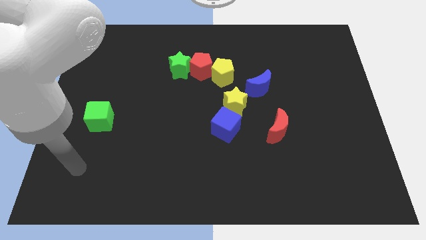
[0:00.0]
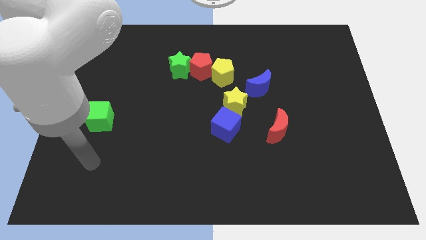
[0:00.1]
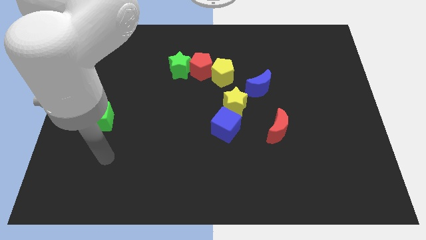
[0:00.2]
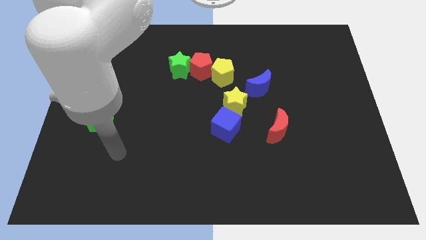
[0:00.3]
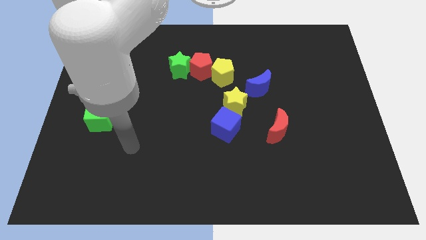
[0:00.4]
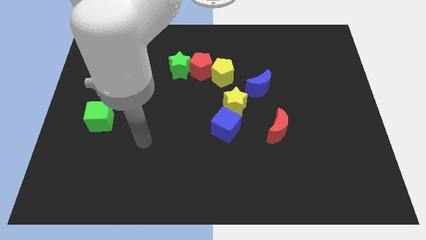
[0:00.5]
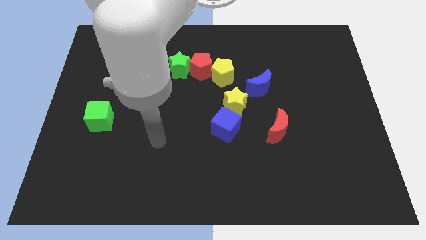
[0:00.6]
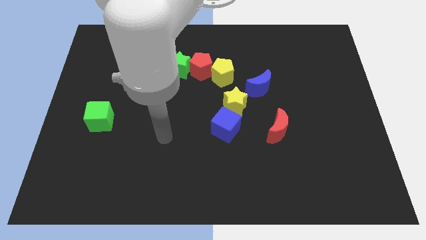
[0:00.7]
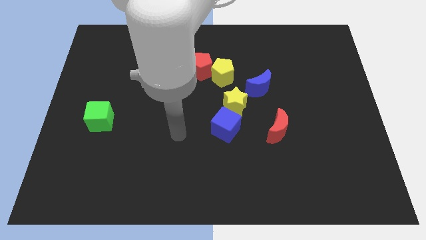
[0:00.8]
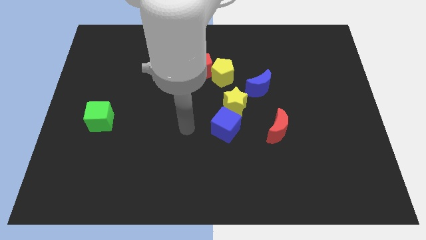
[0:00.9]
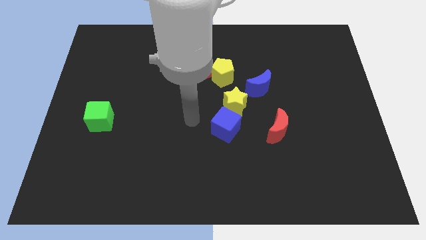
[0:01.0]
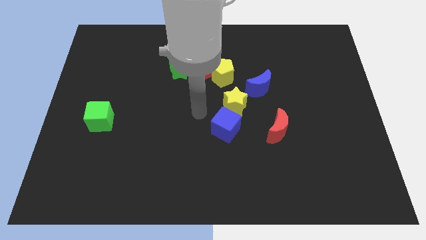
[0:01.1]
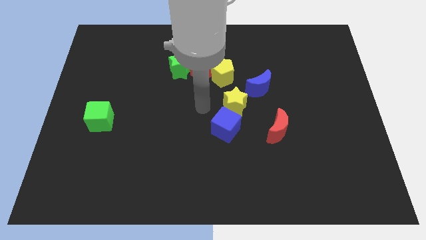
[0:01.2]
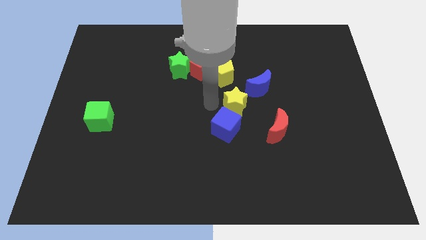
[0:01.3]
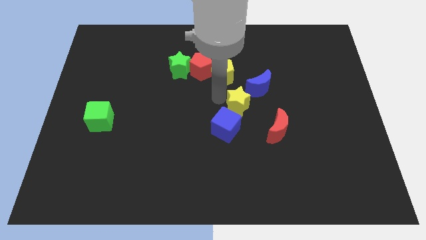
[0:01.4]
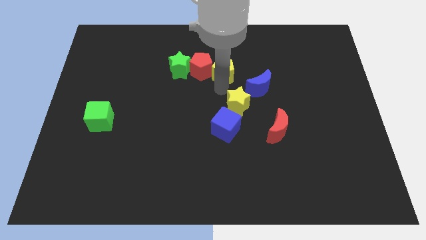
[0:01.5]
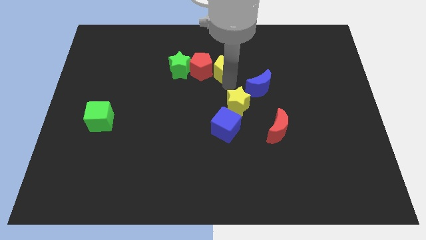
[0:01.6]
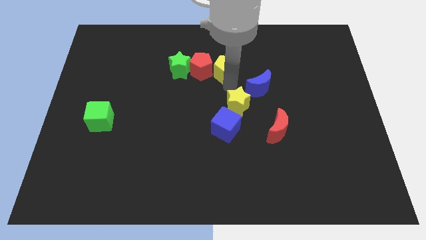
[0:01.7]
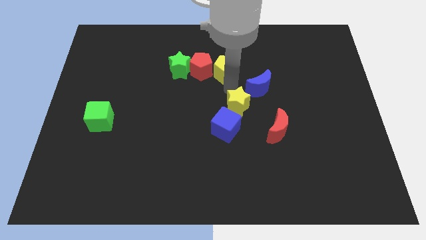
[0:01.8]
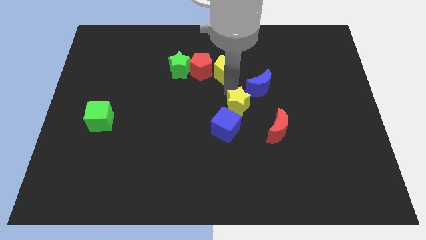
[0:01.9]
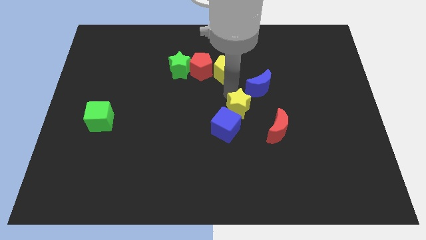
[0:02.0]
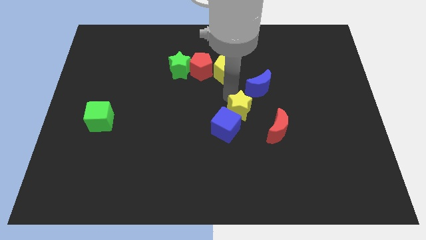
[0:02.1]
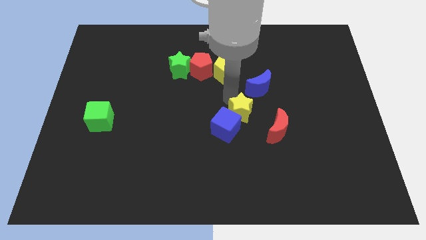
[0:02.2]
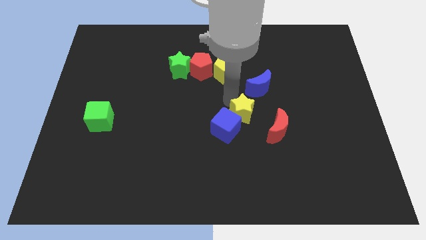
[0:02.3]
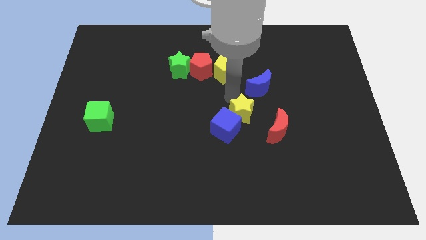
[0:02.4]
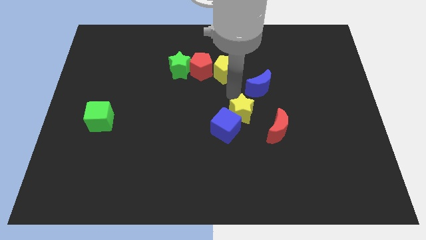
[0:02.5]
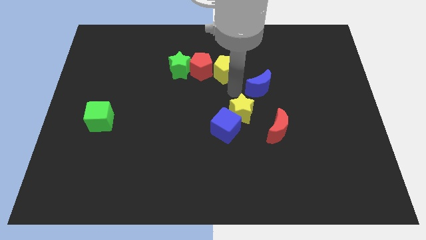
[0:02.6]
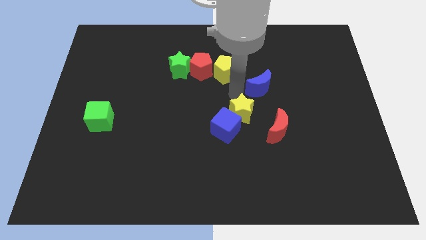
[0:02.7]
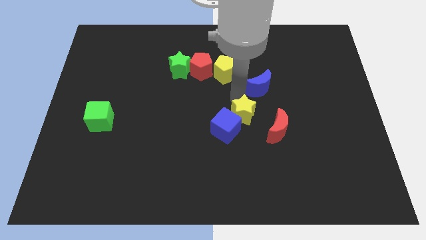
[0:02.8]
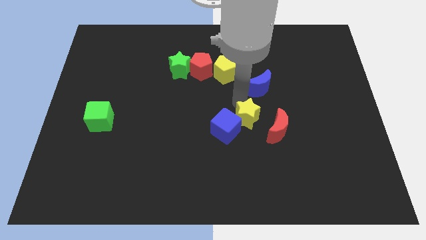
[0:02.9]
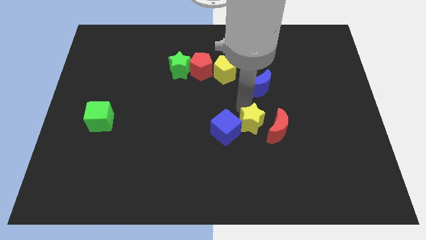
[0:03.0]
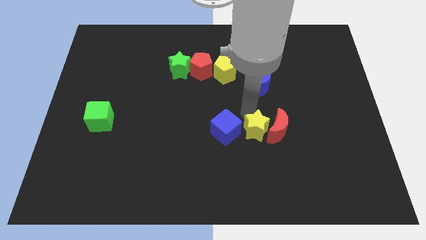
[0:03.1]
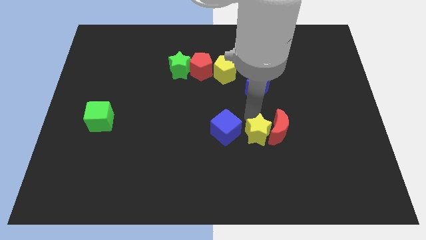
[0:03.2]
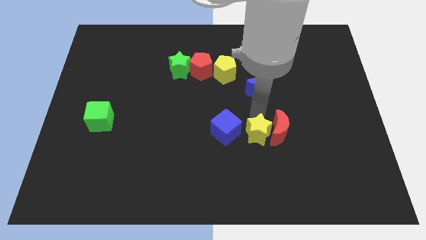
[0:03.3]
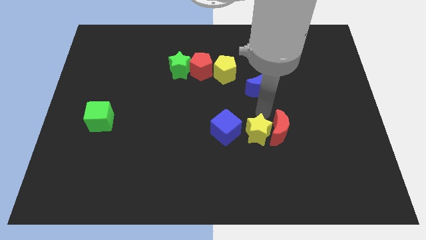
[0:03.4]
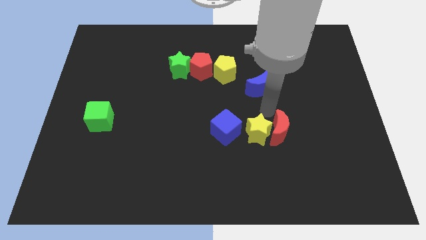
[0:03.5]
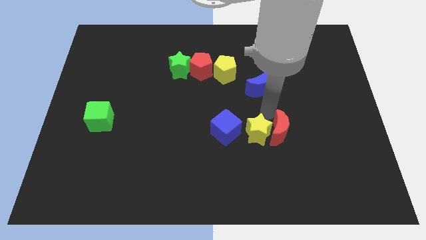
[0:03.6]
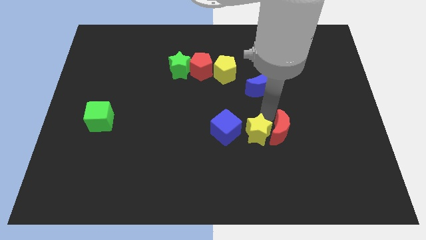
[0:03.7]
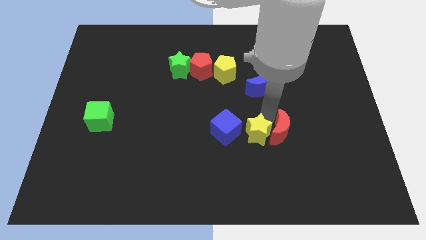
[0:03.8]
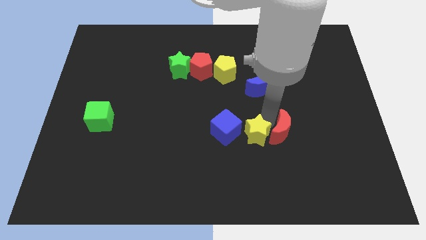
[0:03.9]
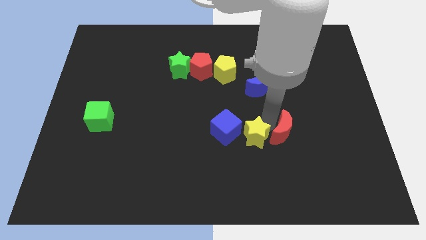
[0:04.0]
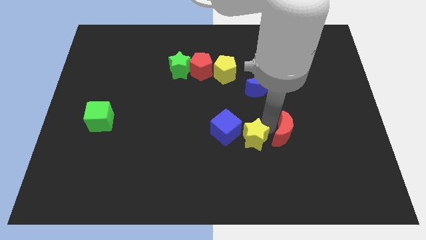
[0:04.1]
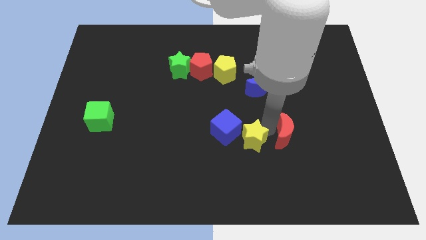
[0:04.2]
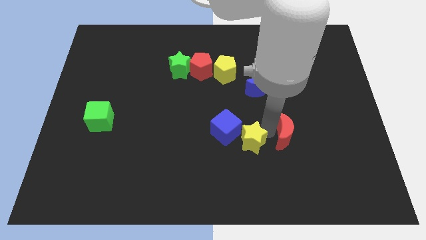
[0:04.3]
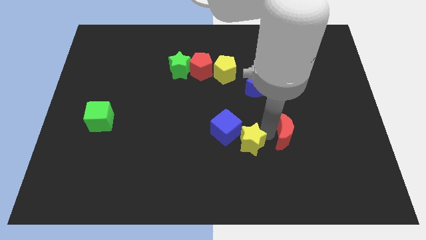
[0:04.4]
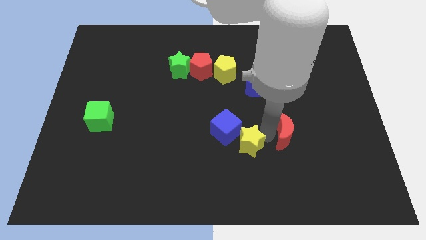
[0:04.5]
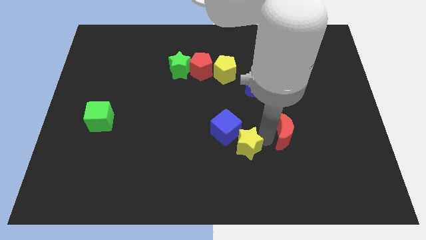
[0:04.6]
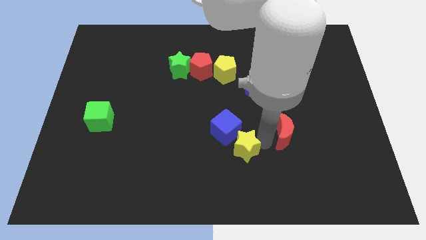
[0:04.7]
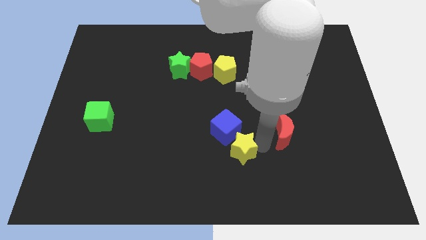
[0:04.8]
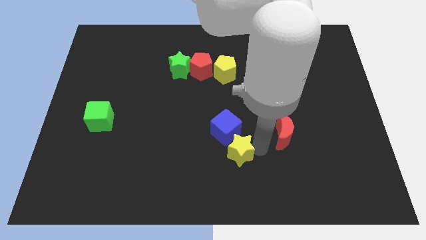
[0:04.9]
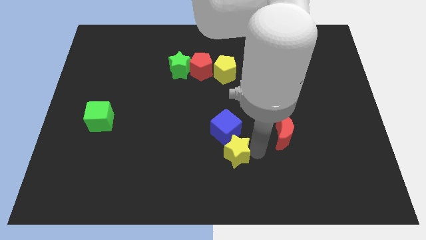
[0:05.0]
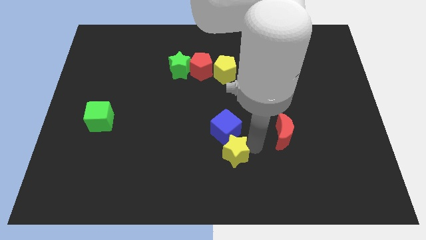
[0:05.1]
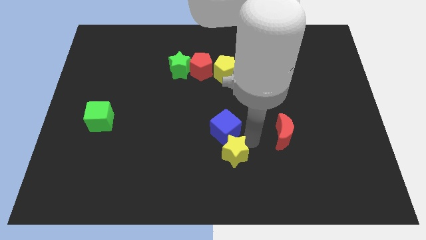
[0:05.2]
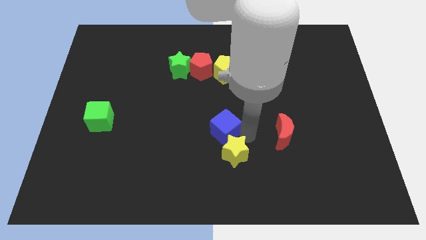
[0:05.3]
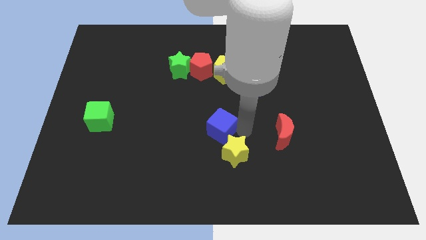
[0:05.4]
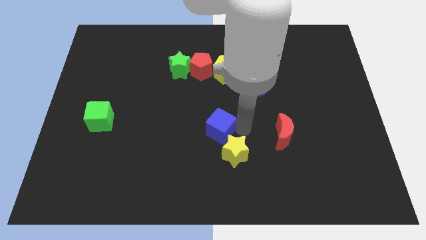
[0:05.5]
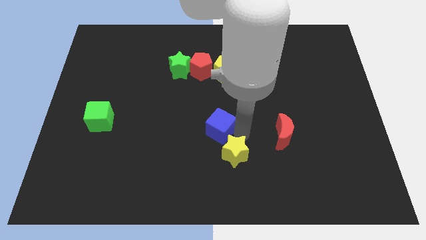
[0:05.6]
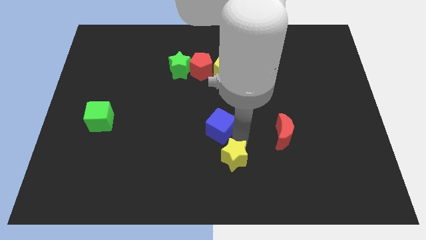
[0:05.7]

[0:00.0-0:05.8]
slide the yellow star to the bottom side
